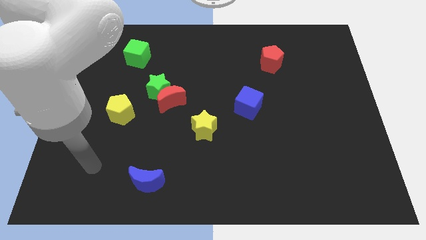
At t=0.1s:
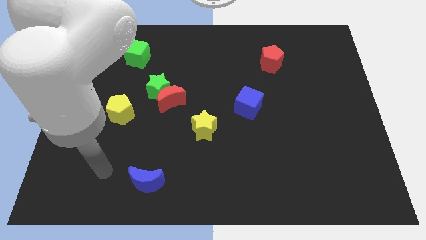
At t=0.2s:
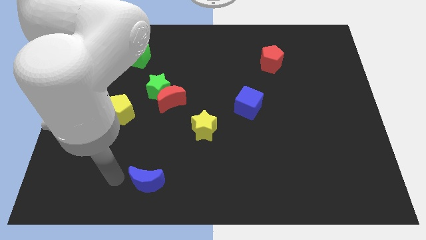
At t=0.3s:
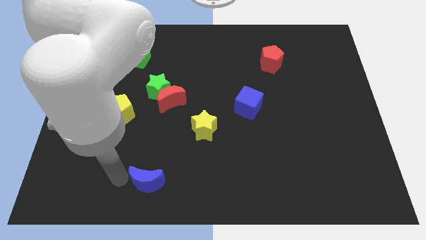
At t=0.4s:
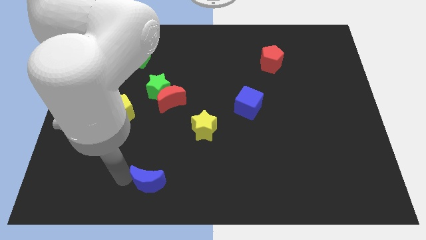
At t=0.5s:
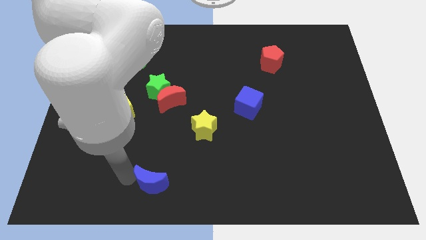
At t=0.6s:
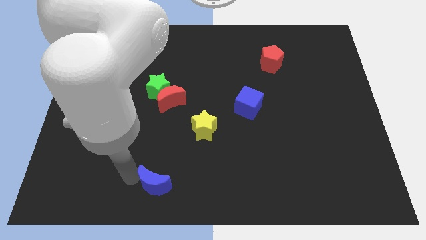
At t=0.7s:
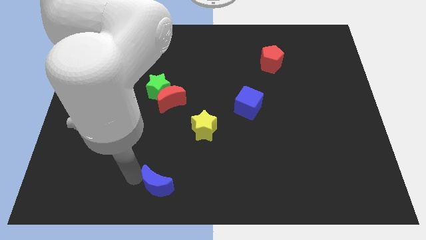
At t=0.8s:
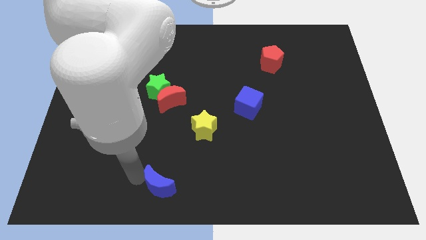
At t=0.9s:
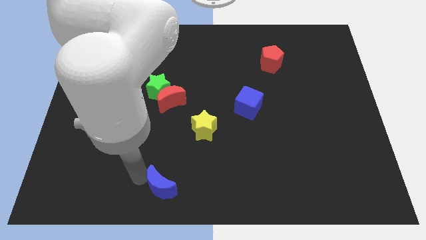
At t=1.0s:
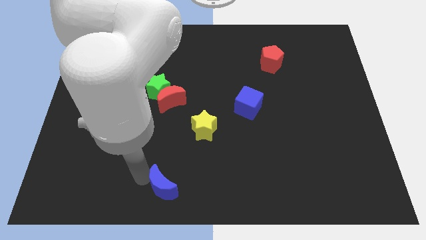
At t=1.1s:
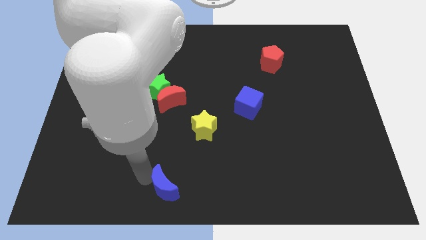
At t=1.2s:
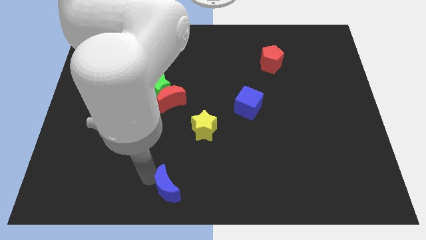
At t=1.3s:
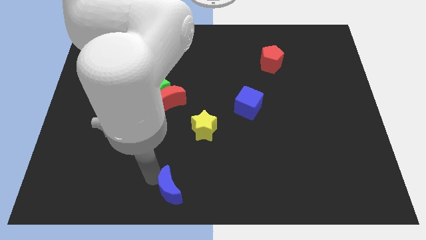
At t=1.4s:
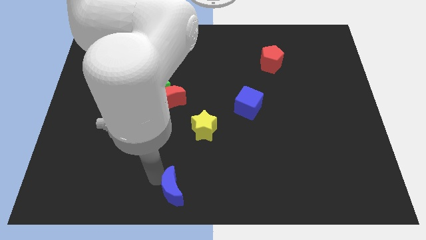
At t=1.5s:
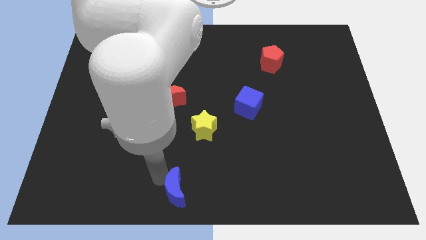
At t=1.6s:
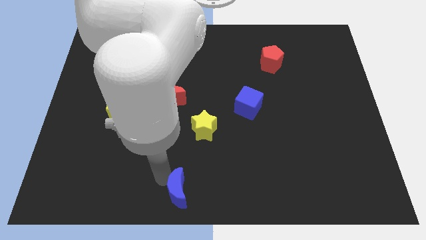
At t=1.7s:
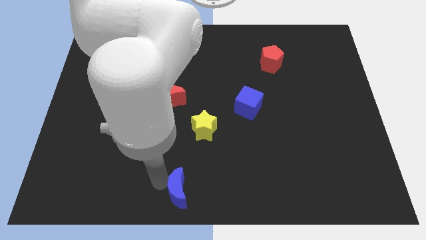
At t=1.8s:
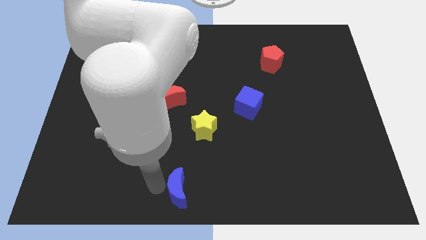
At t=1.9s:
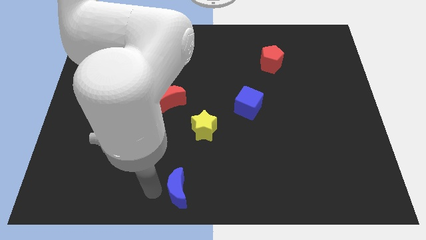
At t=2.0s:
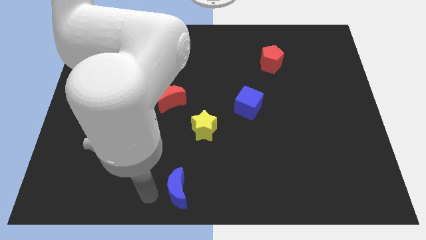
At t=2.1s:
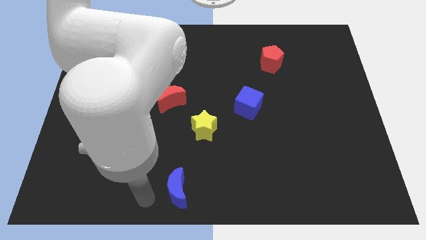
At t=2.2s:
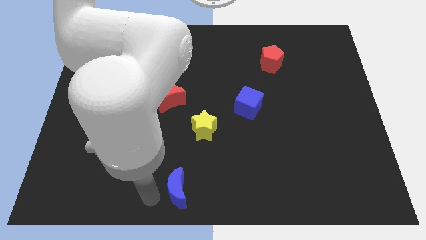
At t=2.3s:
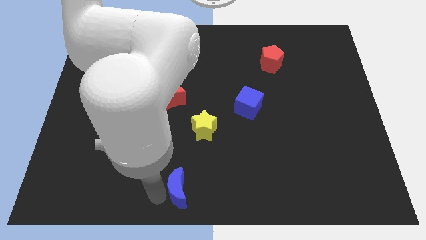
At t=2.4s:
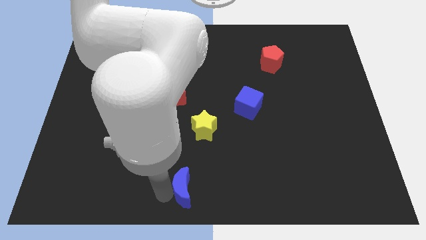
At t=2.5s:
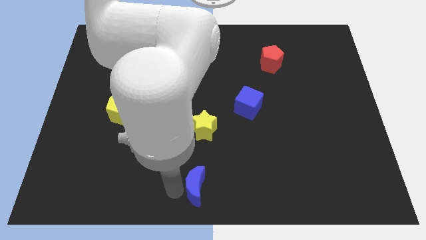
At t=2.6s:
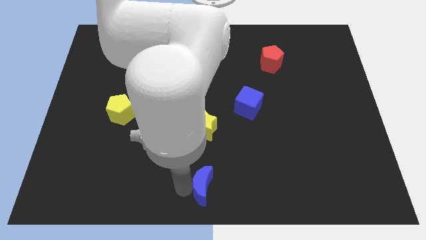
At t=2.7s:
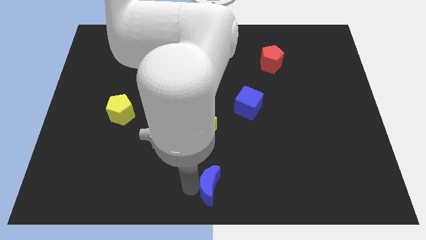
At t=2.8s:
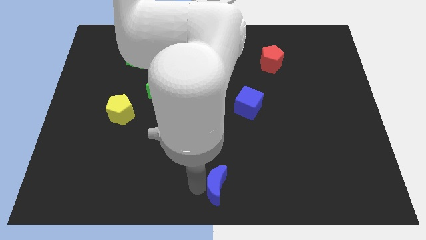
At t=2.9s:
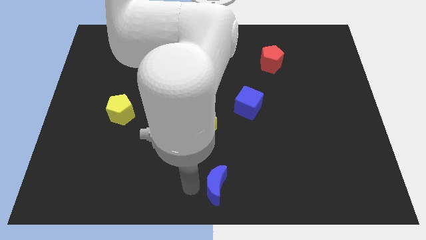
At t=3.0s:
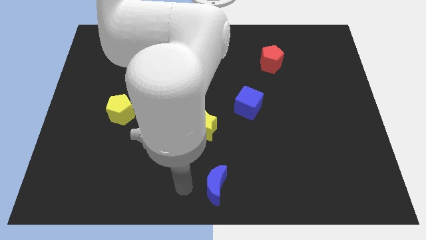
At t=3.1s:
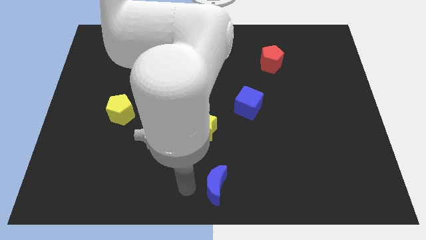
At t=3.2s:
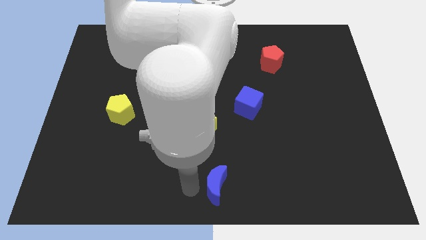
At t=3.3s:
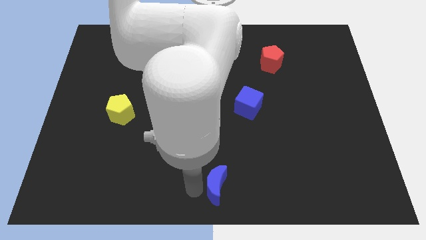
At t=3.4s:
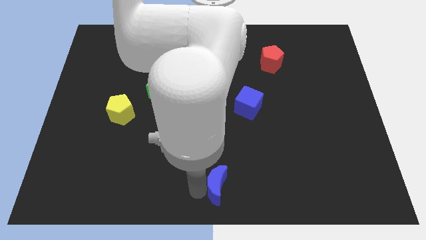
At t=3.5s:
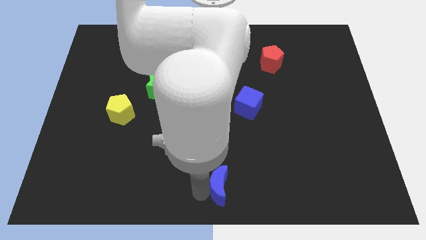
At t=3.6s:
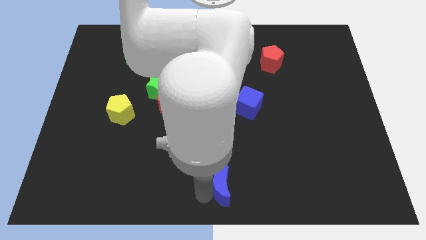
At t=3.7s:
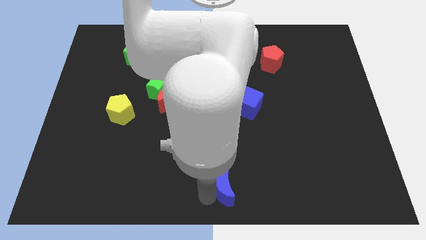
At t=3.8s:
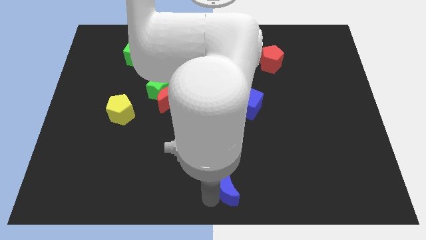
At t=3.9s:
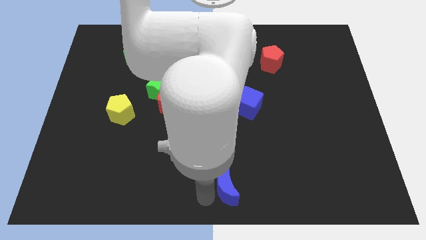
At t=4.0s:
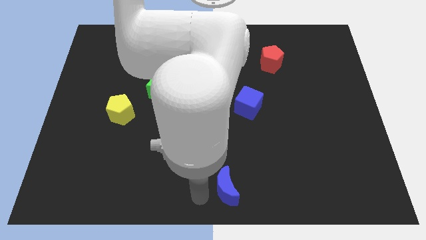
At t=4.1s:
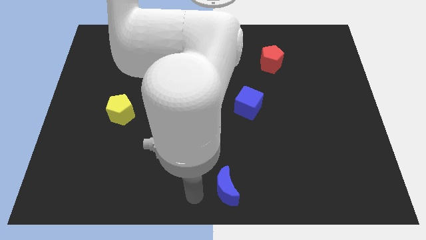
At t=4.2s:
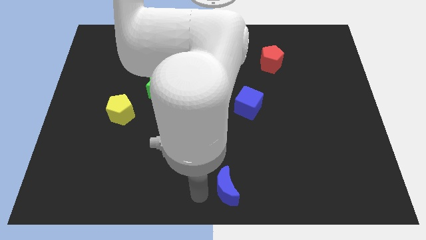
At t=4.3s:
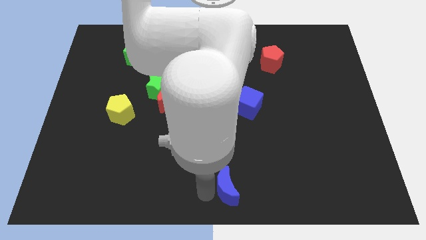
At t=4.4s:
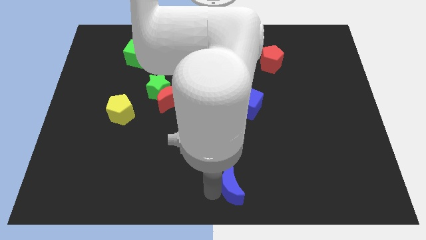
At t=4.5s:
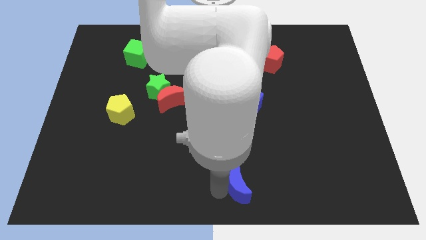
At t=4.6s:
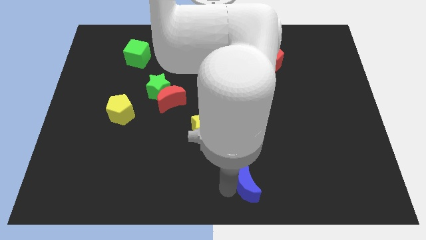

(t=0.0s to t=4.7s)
slide the blue moon to the right

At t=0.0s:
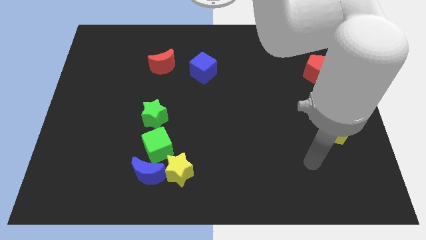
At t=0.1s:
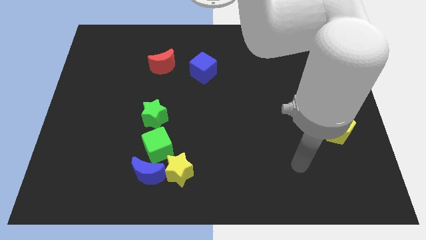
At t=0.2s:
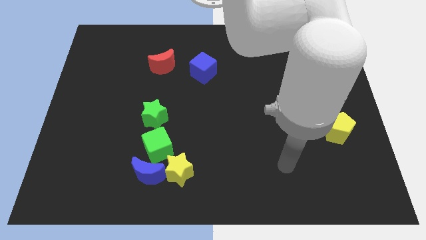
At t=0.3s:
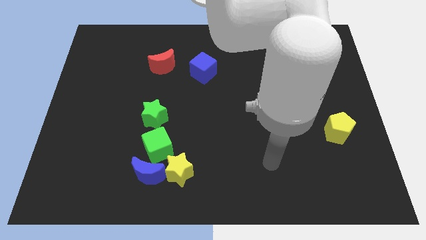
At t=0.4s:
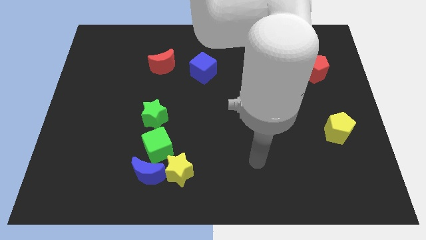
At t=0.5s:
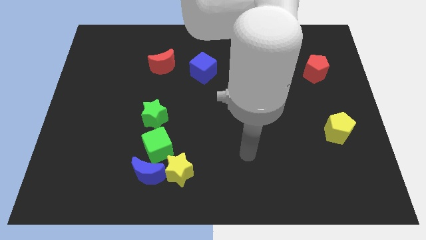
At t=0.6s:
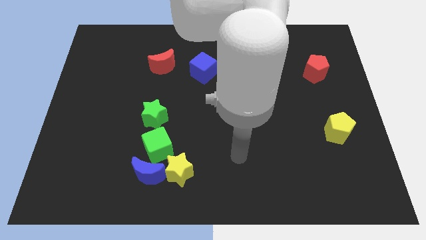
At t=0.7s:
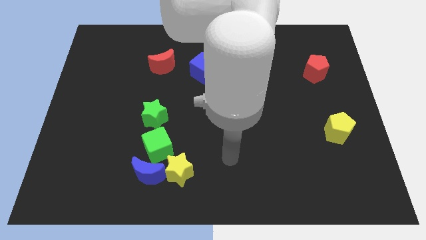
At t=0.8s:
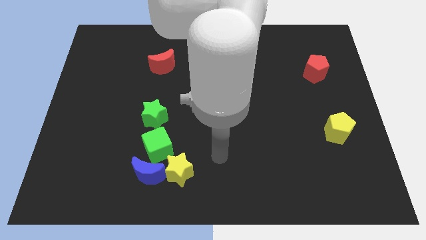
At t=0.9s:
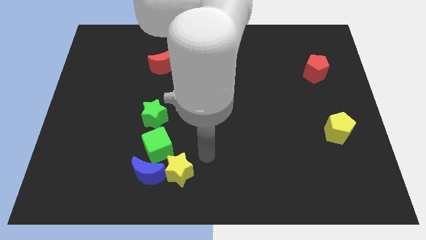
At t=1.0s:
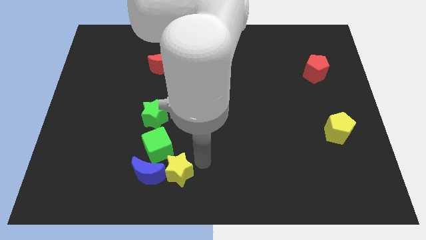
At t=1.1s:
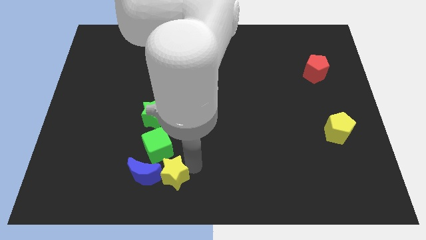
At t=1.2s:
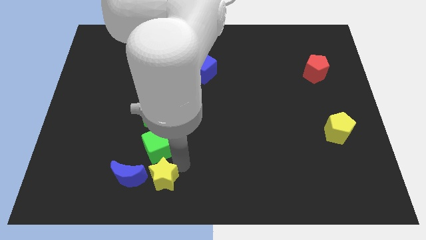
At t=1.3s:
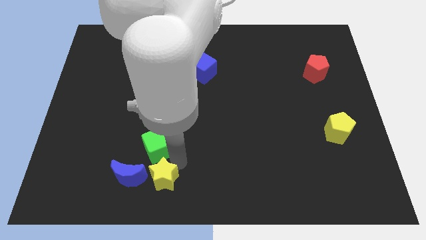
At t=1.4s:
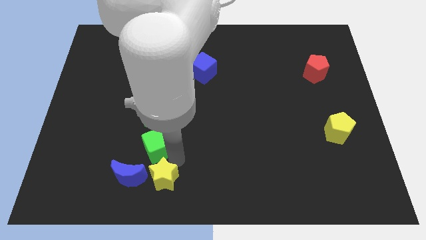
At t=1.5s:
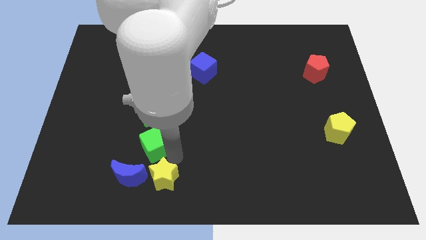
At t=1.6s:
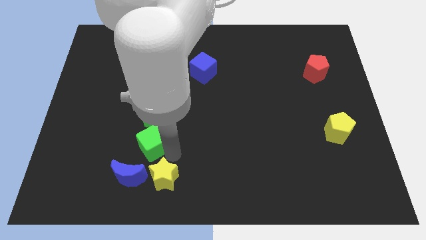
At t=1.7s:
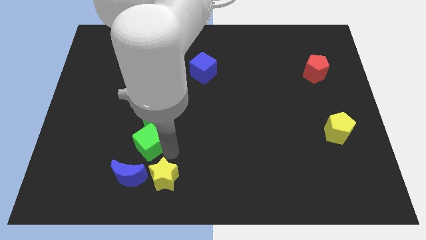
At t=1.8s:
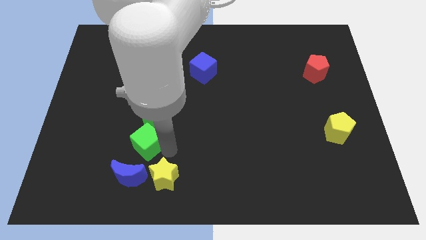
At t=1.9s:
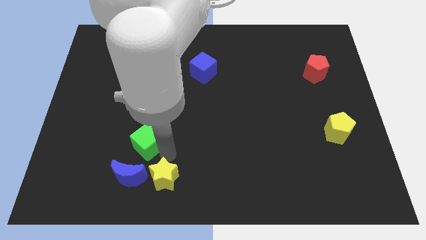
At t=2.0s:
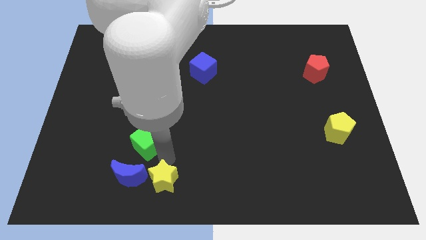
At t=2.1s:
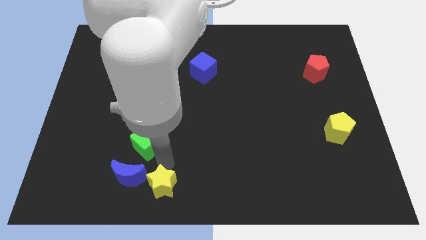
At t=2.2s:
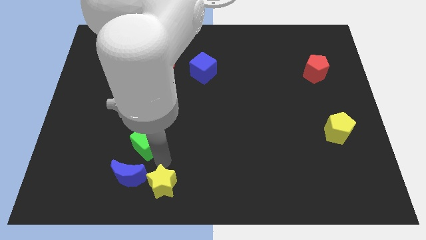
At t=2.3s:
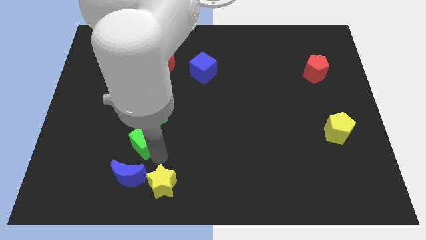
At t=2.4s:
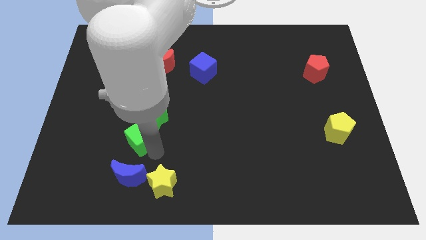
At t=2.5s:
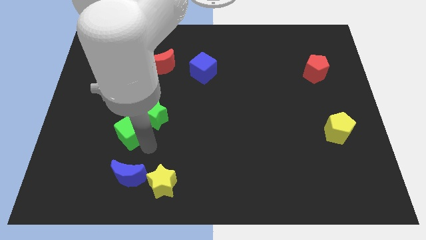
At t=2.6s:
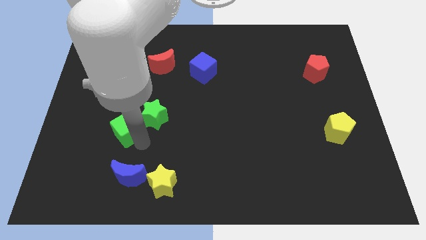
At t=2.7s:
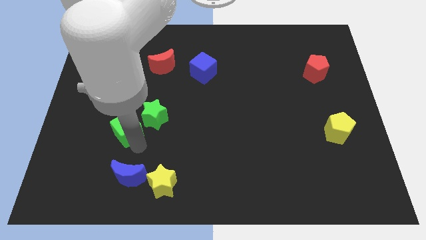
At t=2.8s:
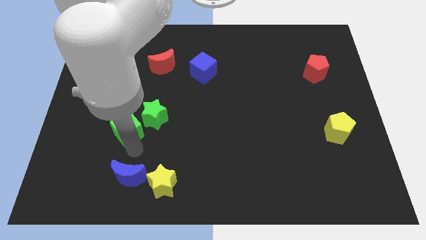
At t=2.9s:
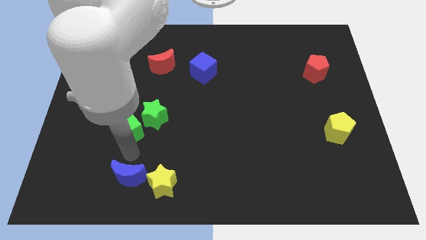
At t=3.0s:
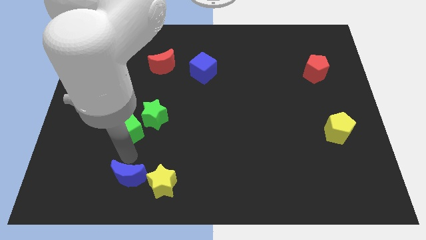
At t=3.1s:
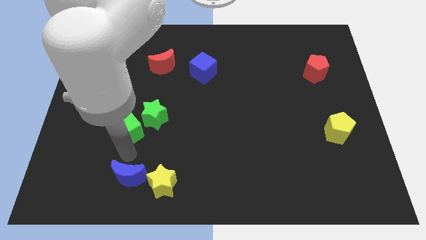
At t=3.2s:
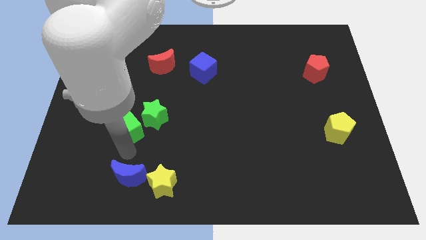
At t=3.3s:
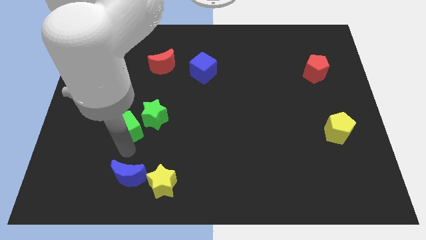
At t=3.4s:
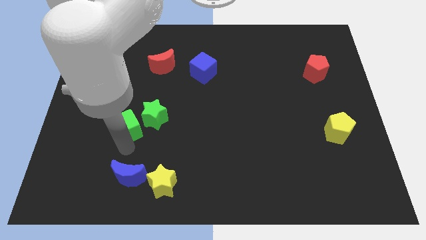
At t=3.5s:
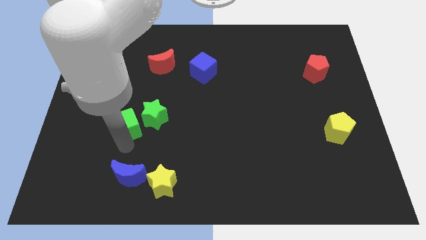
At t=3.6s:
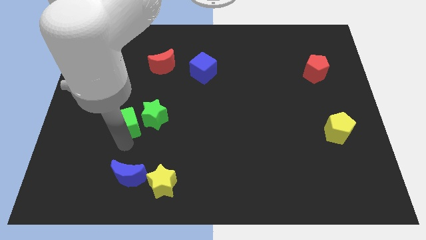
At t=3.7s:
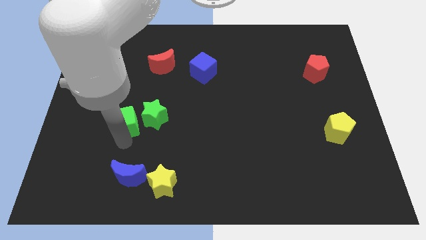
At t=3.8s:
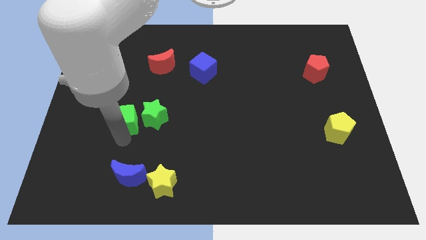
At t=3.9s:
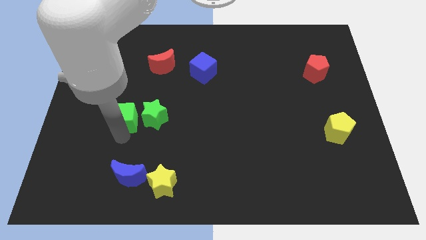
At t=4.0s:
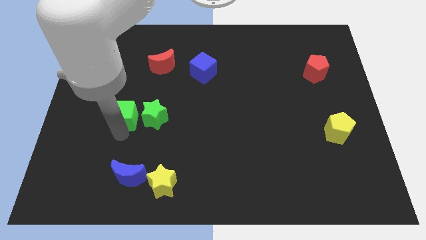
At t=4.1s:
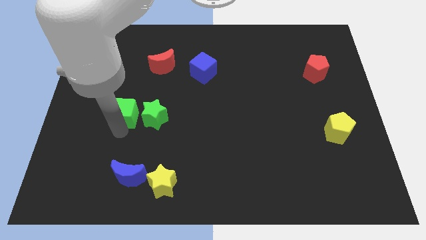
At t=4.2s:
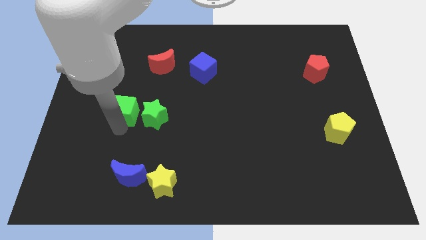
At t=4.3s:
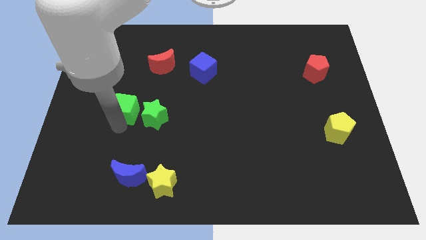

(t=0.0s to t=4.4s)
push the green cube slightly upwards
